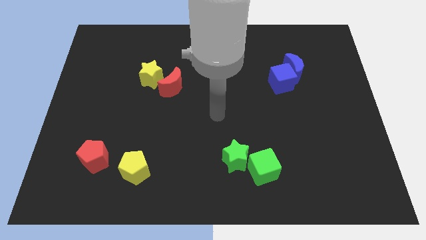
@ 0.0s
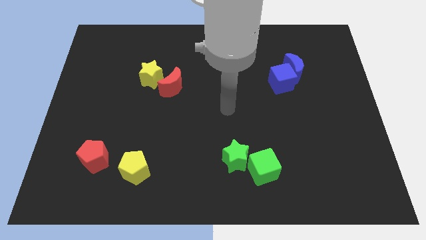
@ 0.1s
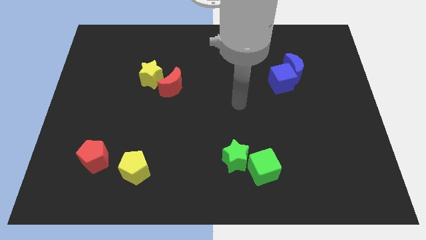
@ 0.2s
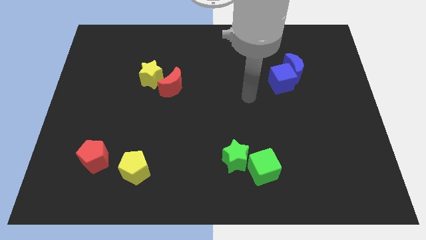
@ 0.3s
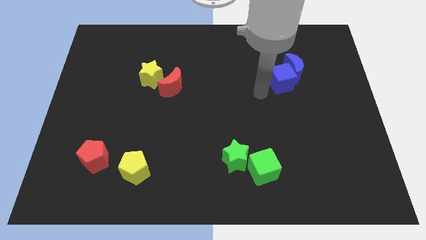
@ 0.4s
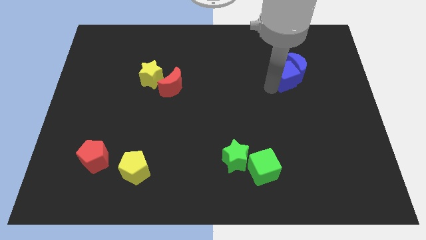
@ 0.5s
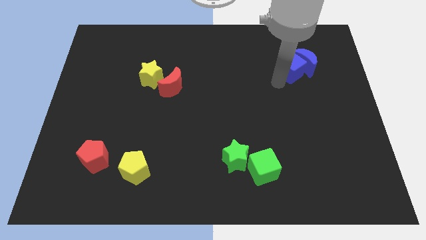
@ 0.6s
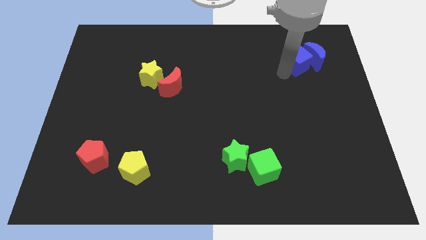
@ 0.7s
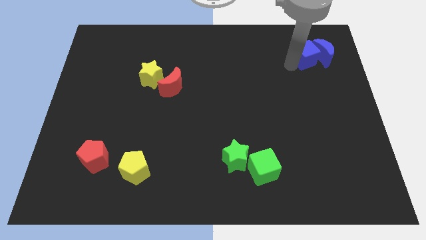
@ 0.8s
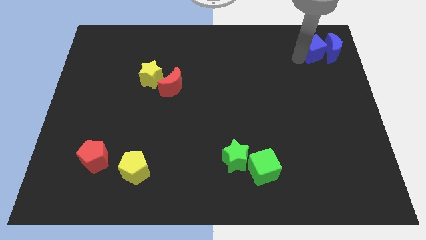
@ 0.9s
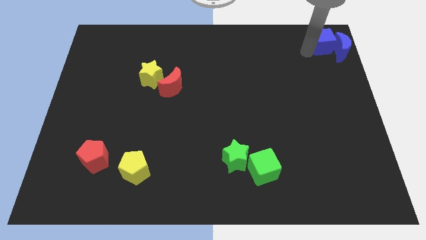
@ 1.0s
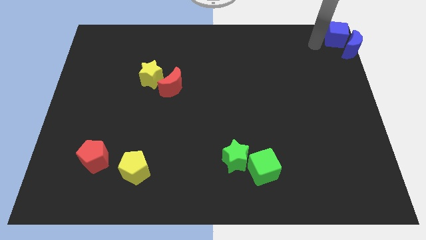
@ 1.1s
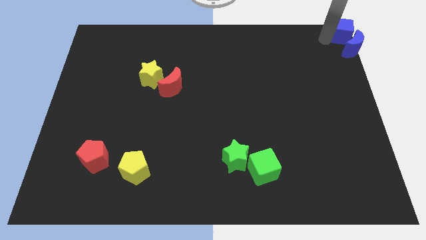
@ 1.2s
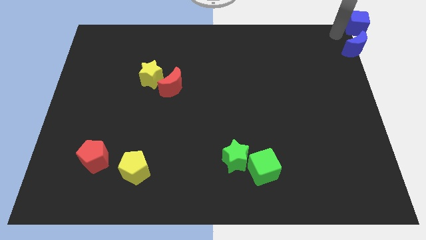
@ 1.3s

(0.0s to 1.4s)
pull the blue moon apart from the blue cube

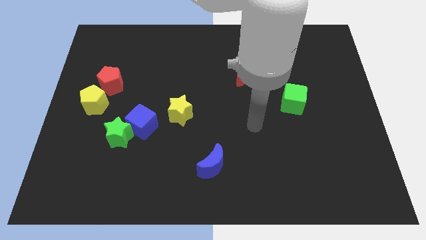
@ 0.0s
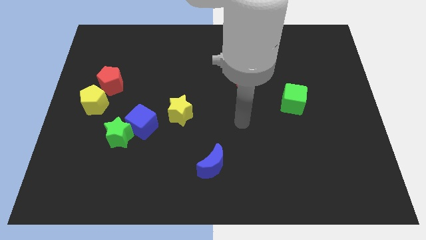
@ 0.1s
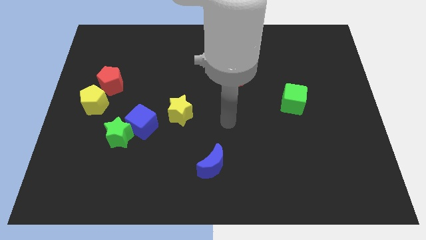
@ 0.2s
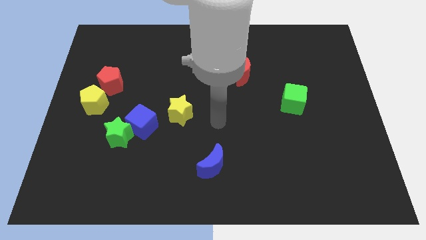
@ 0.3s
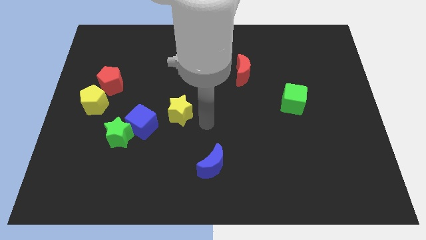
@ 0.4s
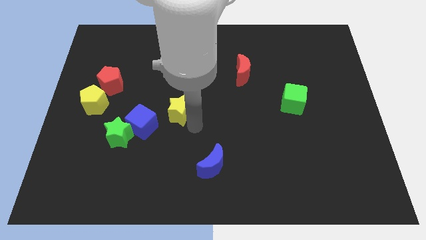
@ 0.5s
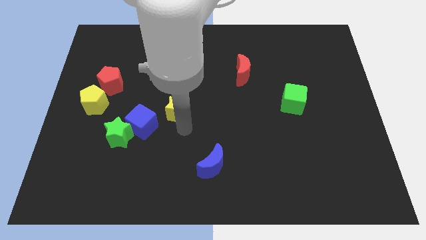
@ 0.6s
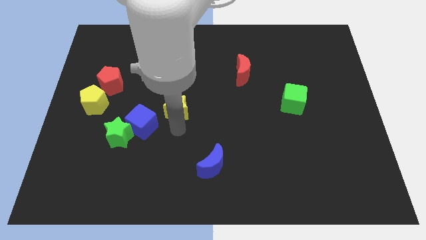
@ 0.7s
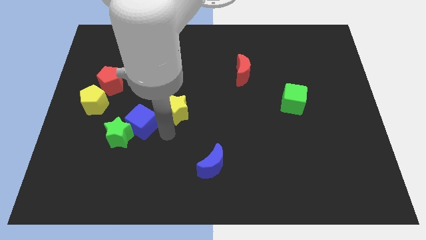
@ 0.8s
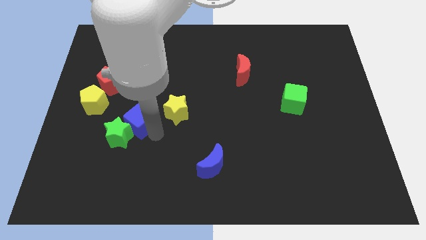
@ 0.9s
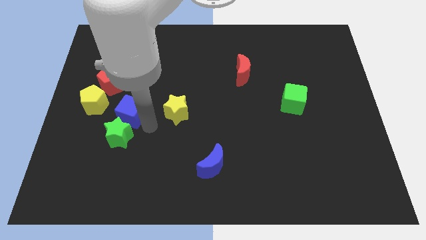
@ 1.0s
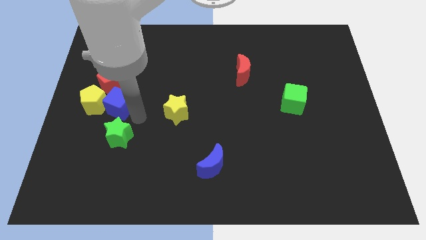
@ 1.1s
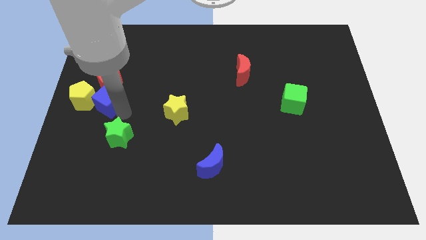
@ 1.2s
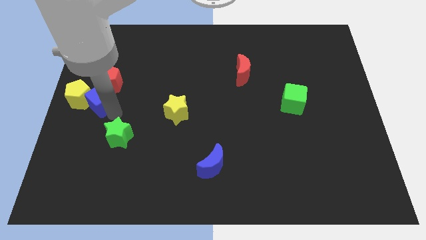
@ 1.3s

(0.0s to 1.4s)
pull the green star apart from the blue cube

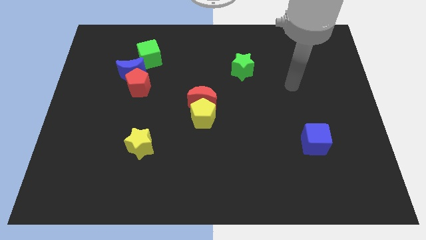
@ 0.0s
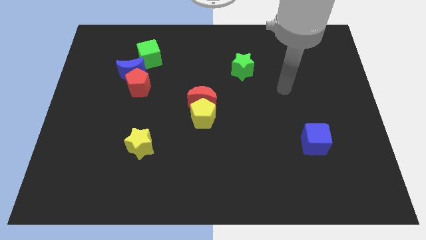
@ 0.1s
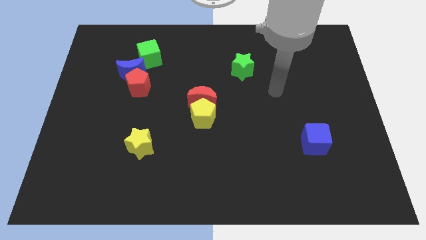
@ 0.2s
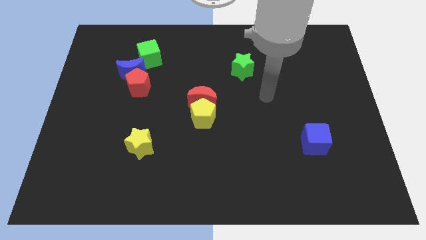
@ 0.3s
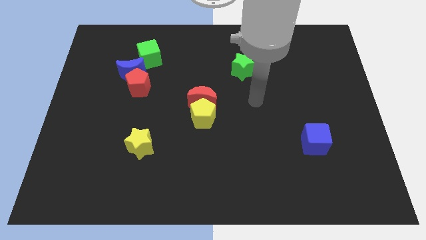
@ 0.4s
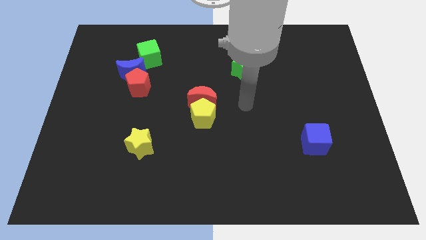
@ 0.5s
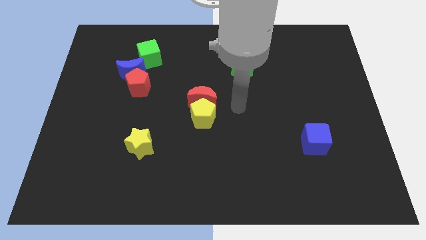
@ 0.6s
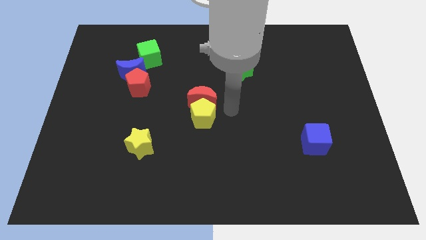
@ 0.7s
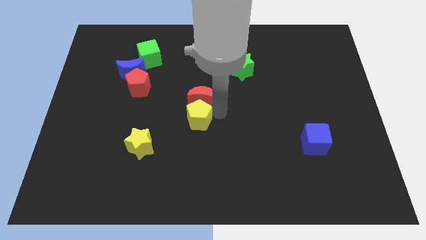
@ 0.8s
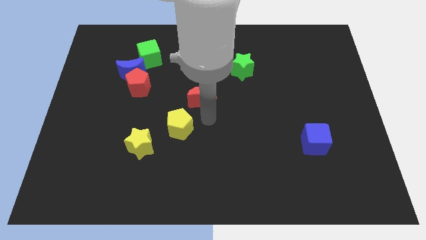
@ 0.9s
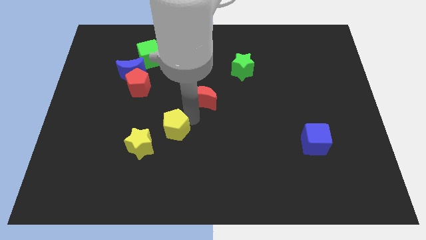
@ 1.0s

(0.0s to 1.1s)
pull the red moon apart from the yellow pentagon

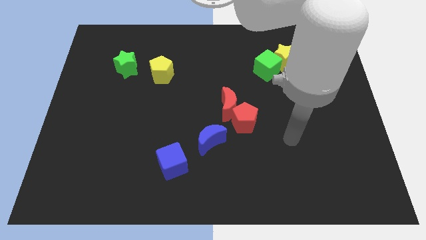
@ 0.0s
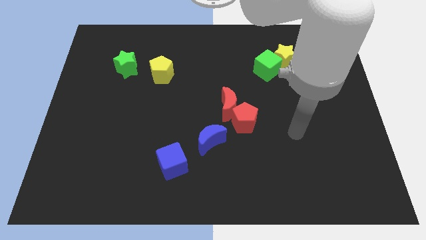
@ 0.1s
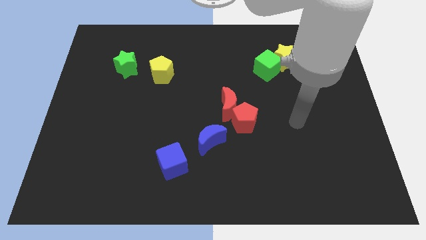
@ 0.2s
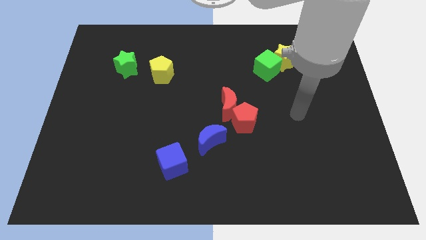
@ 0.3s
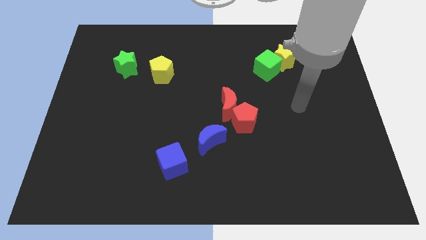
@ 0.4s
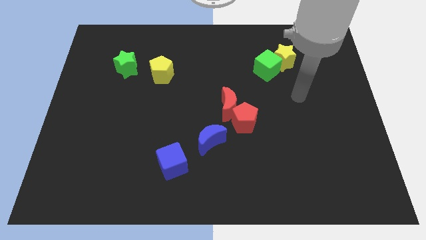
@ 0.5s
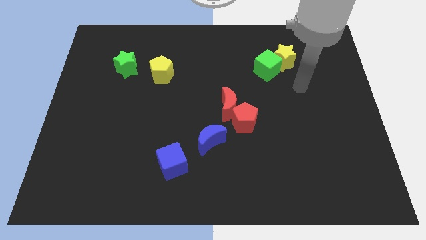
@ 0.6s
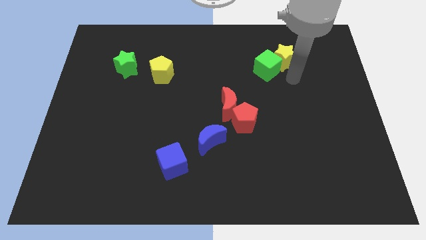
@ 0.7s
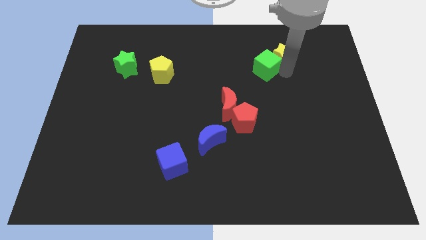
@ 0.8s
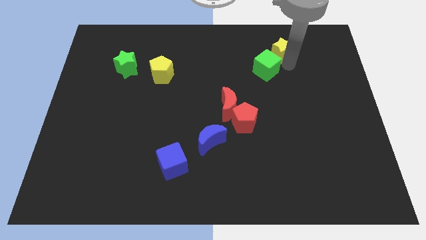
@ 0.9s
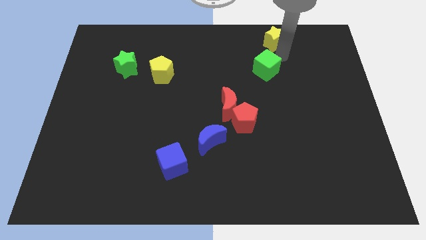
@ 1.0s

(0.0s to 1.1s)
separate the green cube from the yellow star

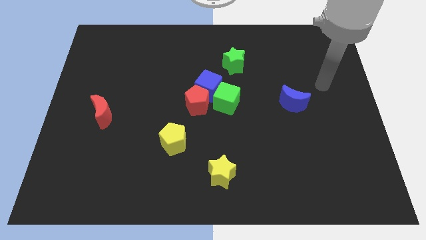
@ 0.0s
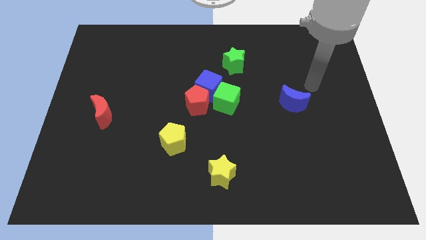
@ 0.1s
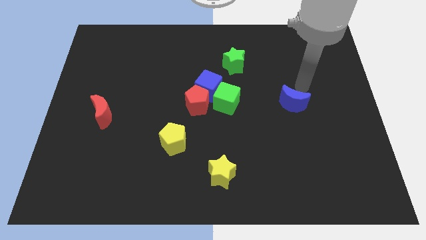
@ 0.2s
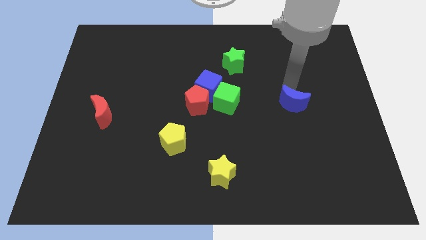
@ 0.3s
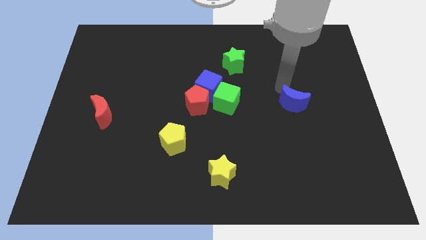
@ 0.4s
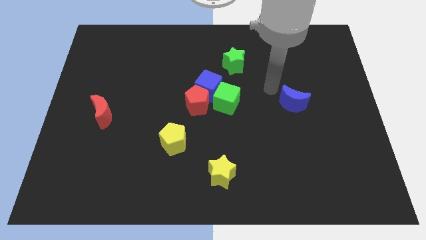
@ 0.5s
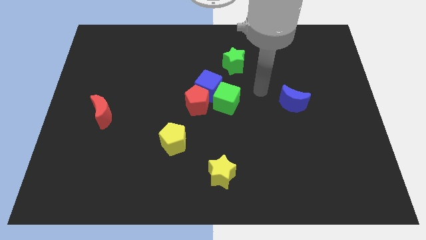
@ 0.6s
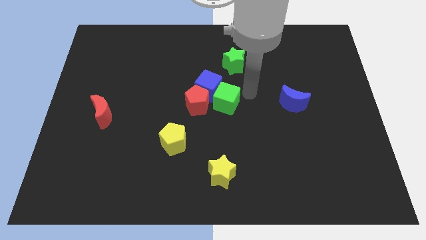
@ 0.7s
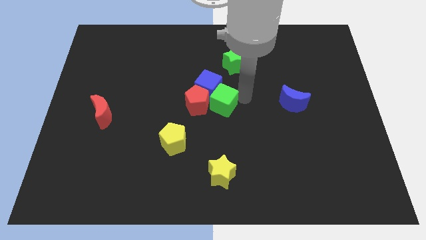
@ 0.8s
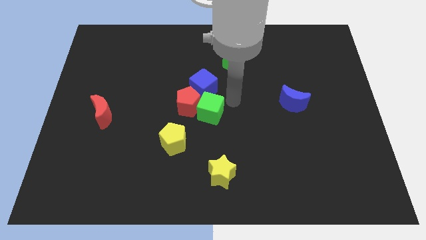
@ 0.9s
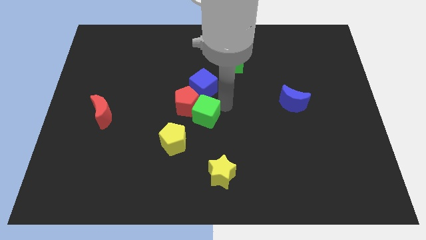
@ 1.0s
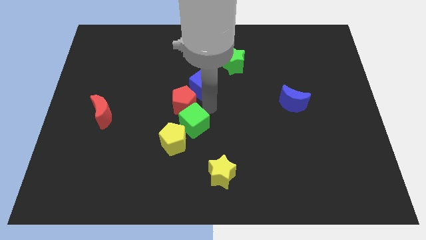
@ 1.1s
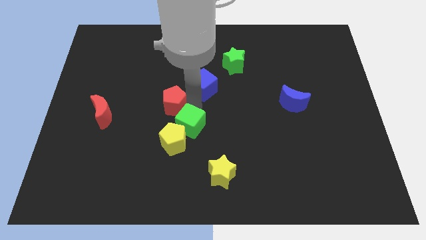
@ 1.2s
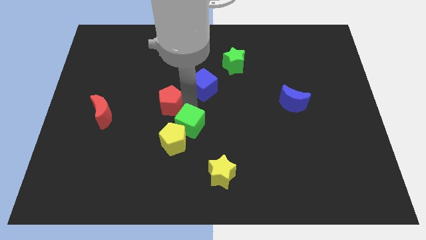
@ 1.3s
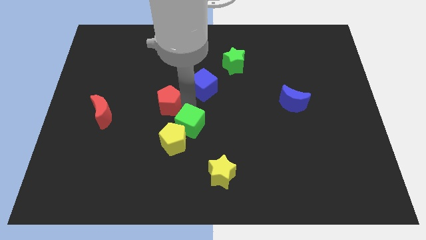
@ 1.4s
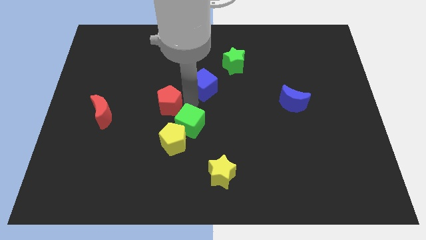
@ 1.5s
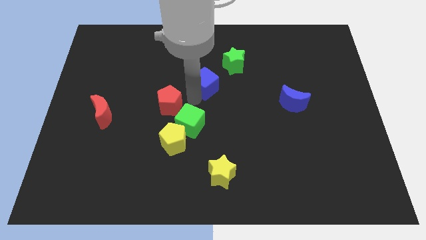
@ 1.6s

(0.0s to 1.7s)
separate the blue cube from the red pentagon and green cube

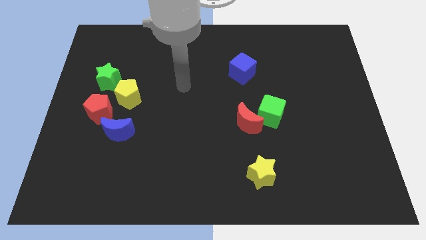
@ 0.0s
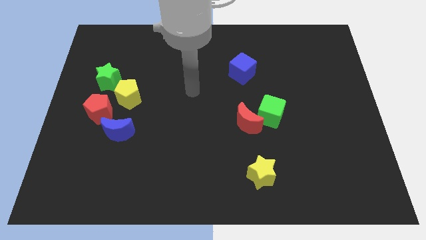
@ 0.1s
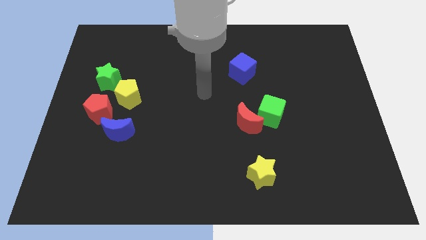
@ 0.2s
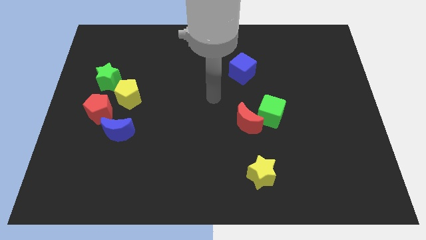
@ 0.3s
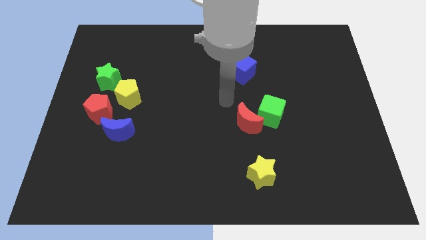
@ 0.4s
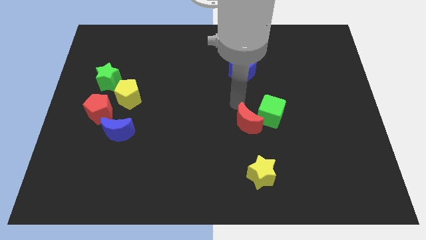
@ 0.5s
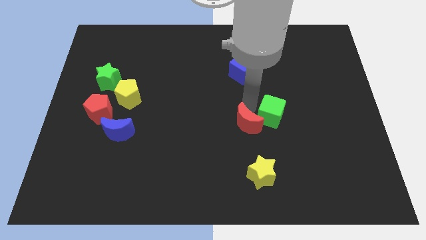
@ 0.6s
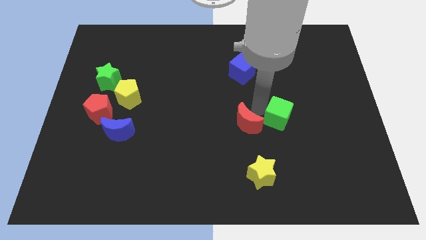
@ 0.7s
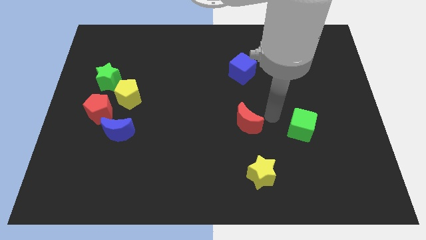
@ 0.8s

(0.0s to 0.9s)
pull the red moon apart from the green cube

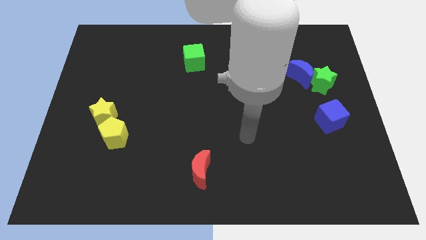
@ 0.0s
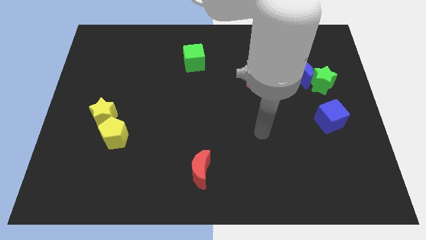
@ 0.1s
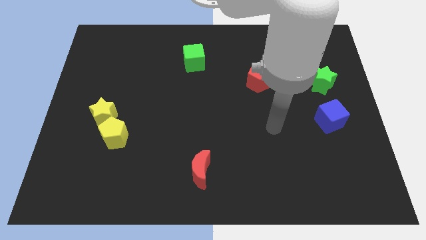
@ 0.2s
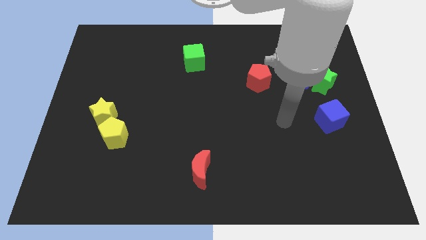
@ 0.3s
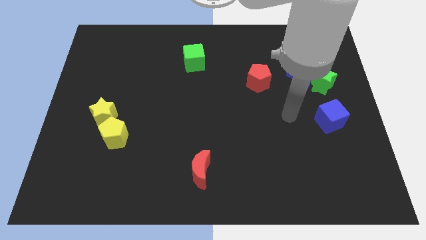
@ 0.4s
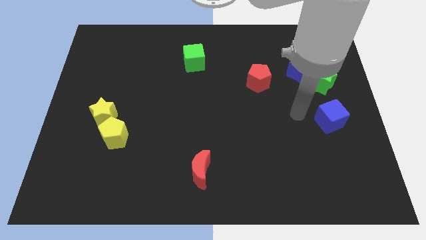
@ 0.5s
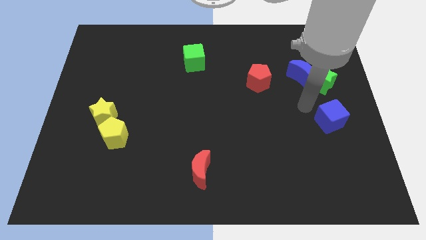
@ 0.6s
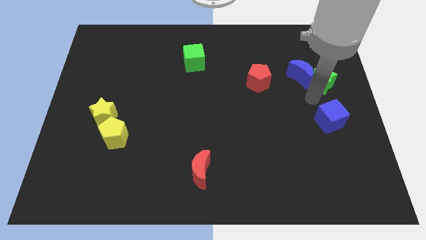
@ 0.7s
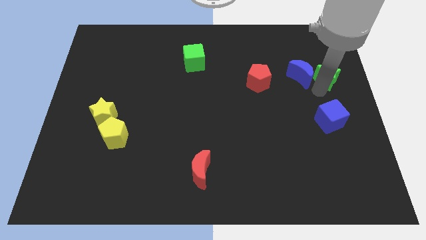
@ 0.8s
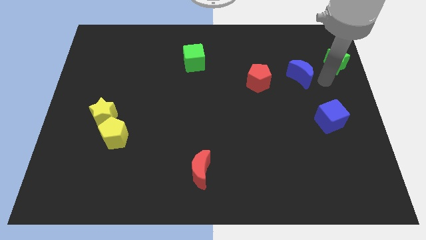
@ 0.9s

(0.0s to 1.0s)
pull the blue moon apart from the green star

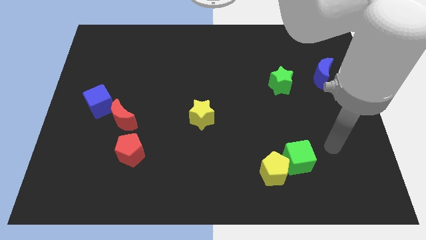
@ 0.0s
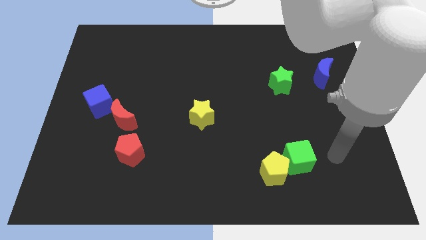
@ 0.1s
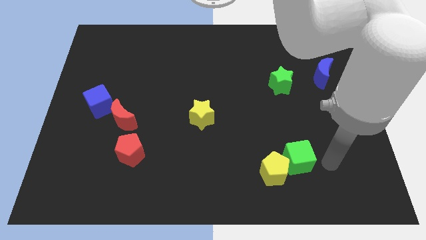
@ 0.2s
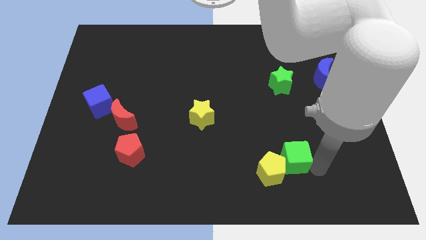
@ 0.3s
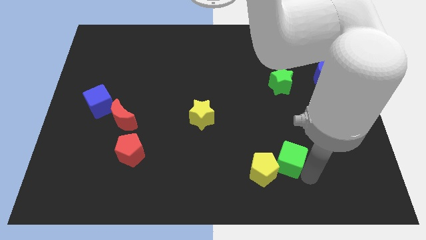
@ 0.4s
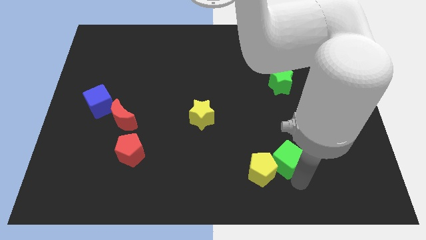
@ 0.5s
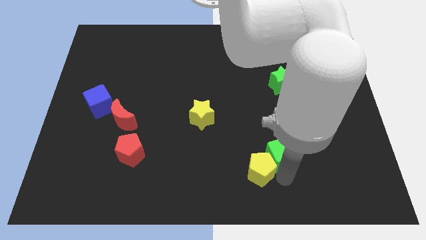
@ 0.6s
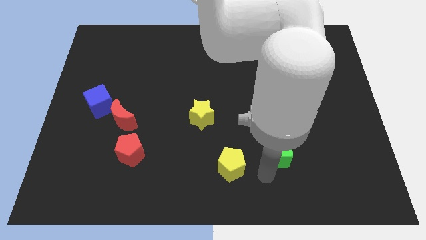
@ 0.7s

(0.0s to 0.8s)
separate the green cube from the yellow pentagon
